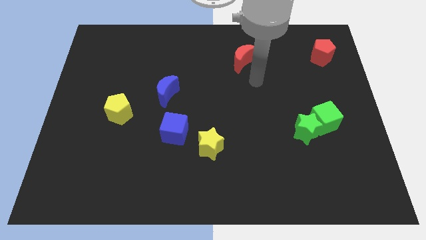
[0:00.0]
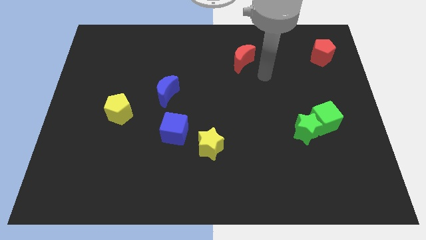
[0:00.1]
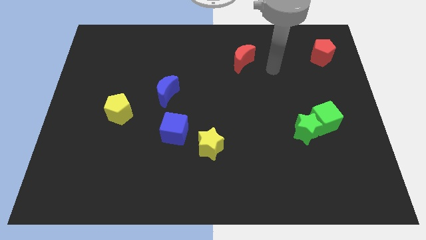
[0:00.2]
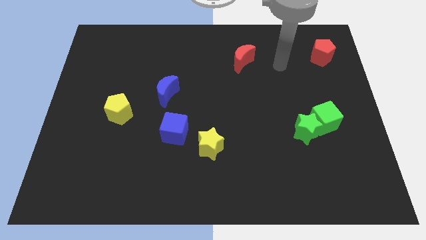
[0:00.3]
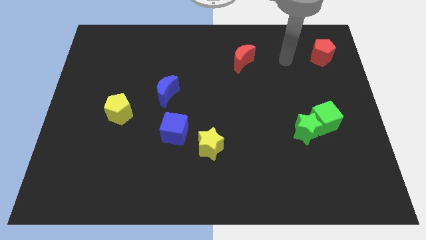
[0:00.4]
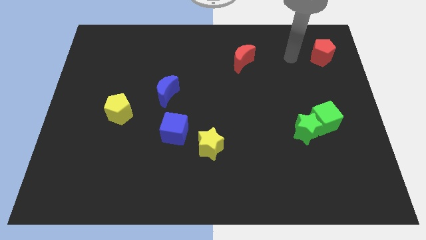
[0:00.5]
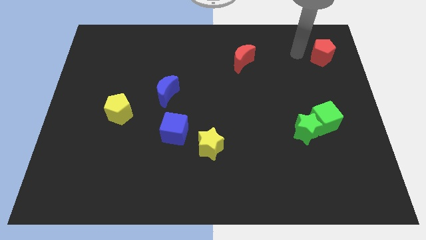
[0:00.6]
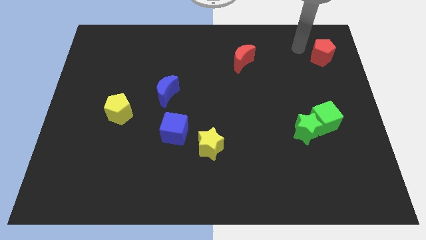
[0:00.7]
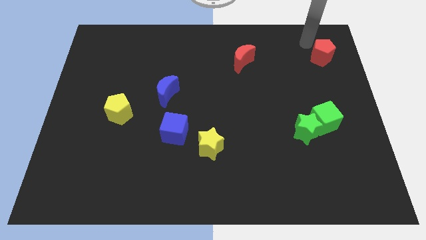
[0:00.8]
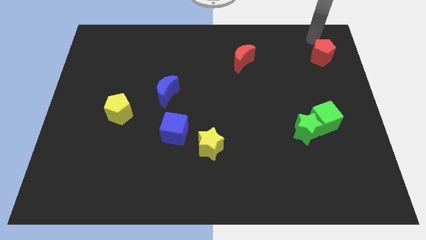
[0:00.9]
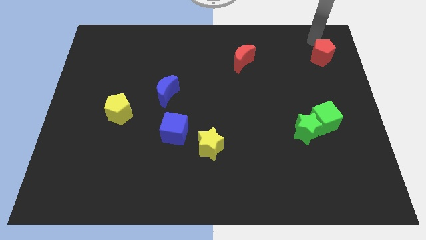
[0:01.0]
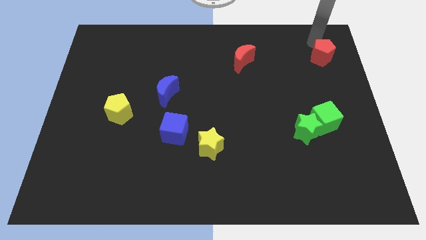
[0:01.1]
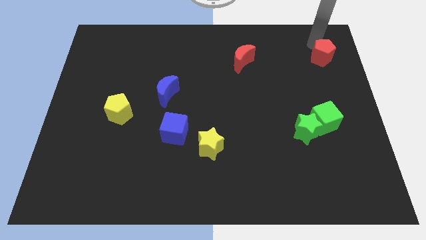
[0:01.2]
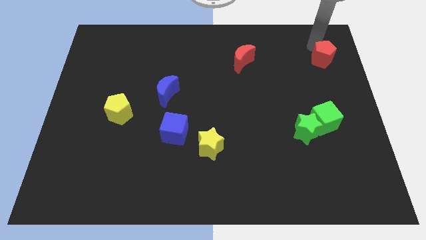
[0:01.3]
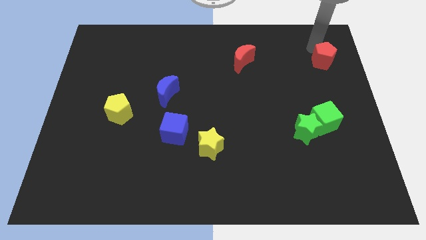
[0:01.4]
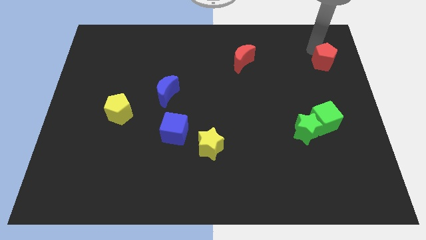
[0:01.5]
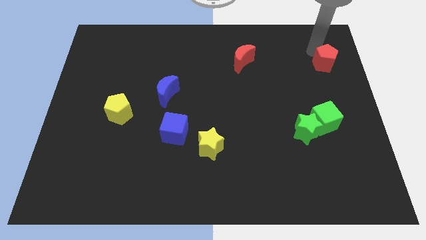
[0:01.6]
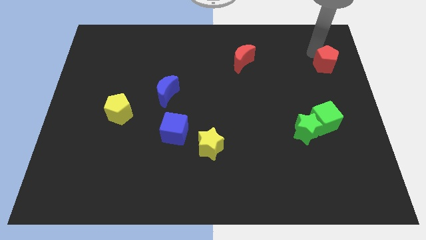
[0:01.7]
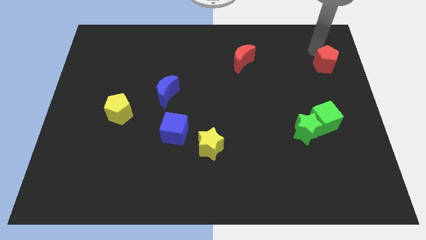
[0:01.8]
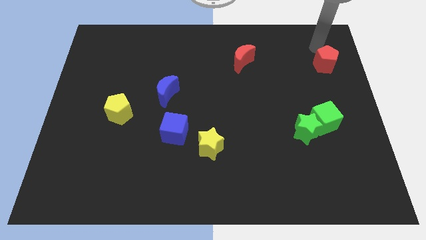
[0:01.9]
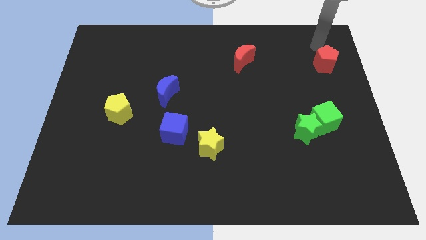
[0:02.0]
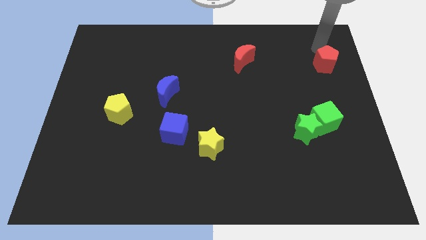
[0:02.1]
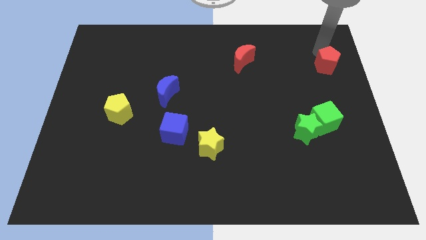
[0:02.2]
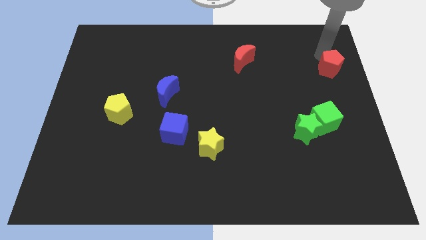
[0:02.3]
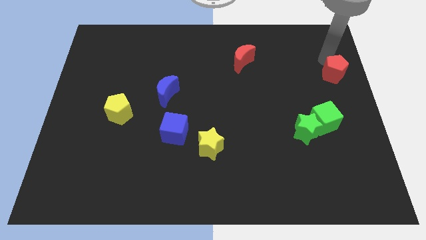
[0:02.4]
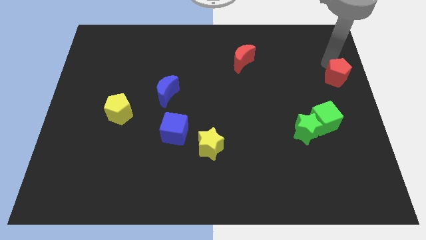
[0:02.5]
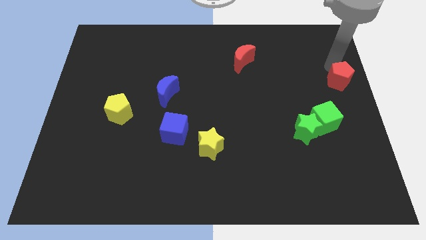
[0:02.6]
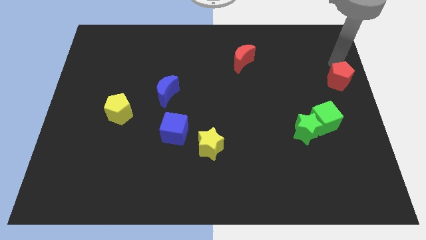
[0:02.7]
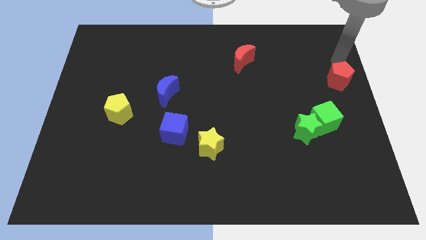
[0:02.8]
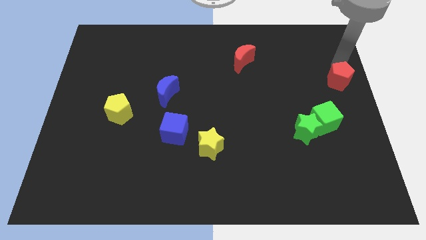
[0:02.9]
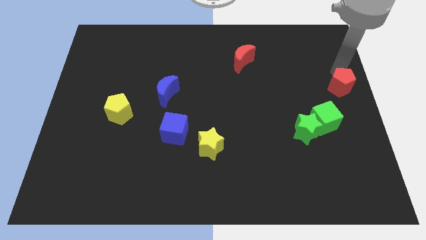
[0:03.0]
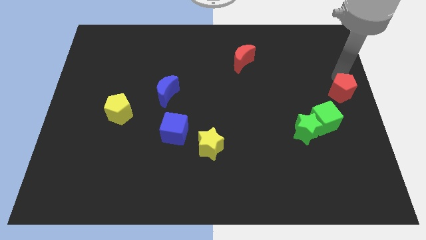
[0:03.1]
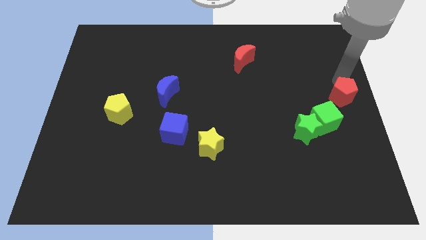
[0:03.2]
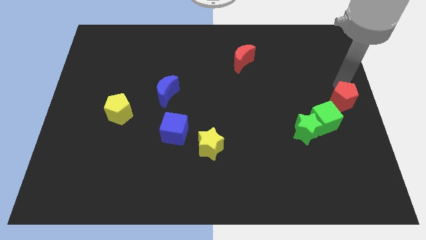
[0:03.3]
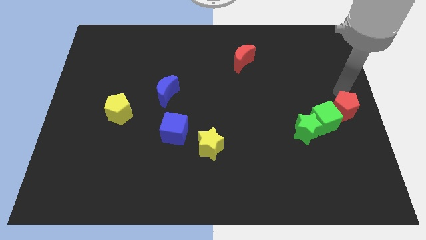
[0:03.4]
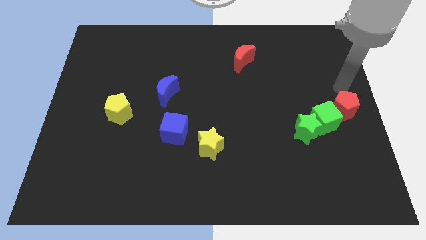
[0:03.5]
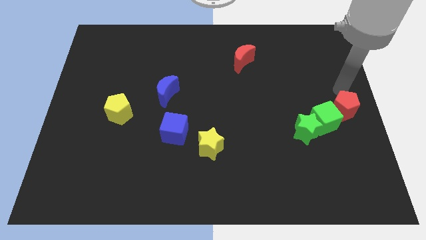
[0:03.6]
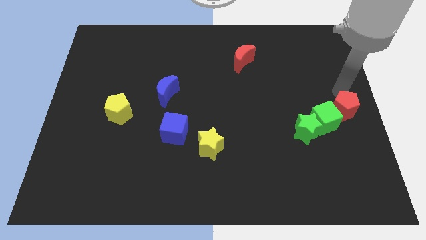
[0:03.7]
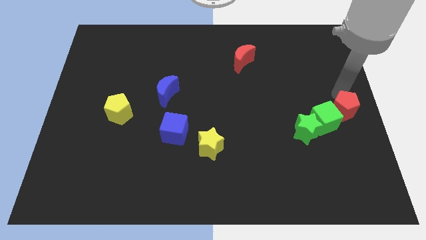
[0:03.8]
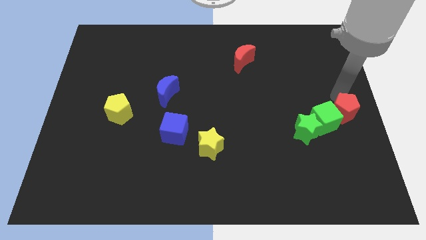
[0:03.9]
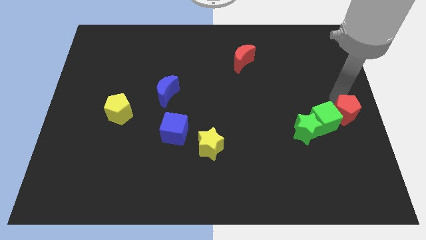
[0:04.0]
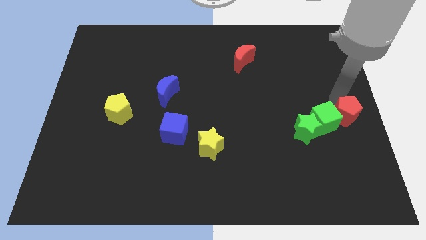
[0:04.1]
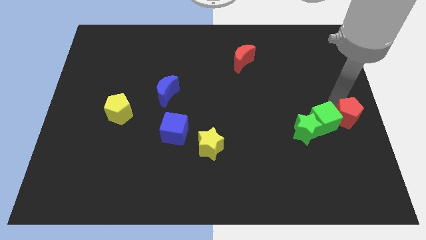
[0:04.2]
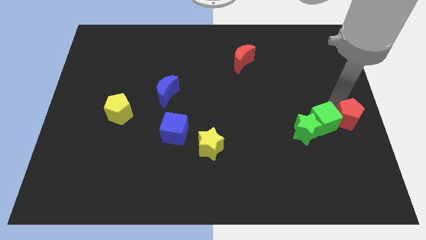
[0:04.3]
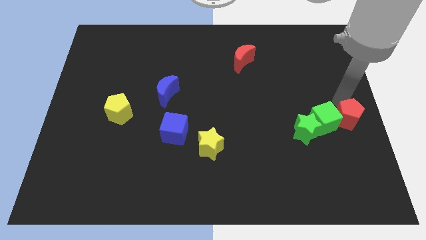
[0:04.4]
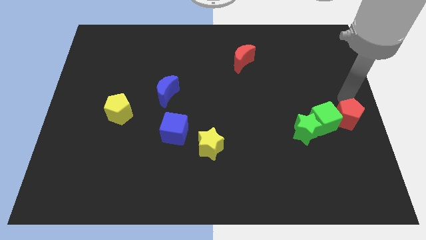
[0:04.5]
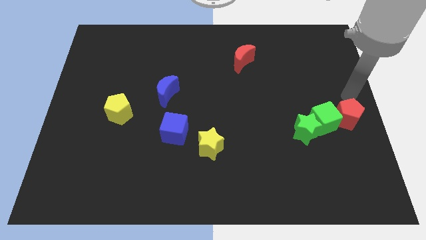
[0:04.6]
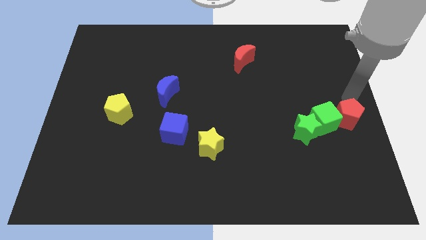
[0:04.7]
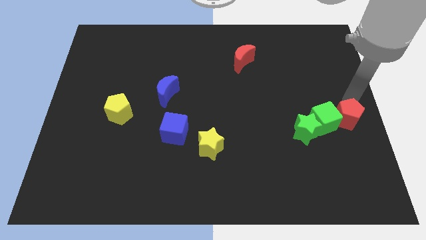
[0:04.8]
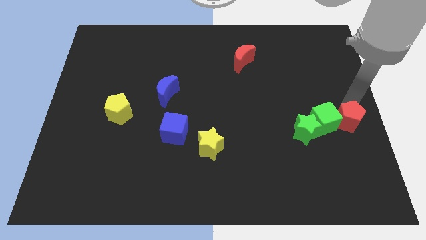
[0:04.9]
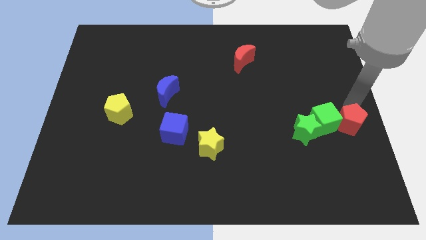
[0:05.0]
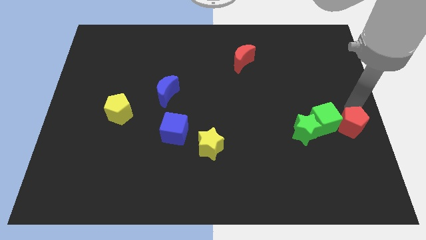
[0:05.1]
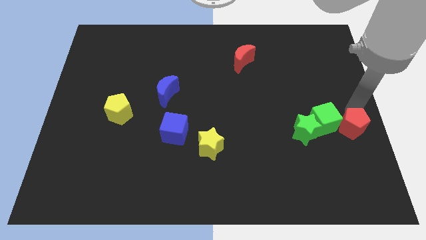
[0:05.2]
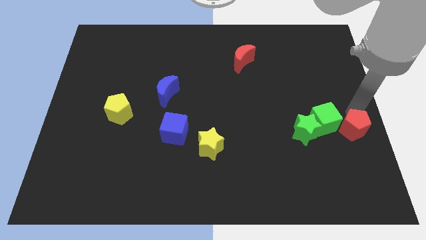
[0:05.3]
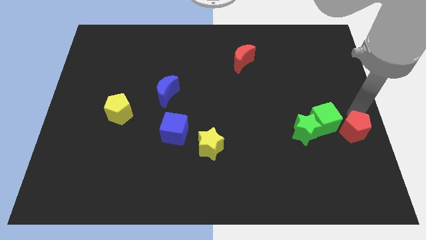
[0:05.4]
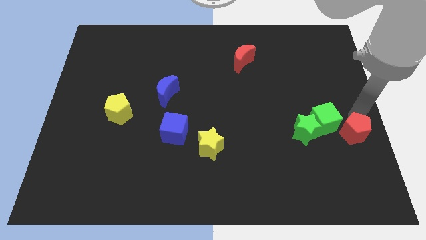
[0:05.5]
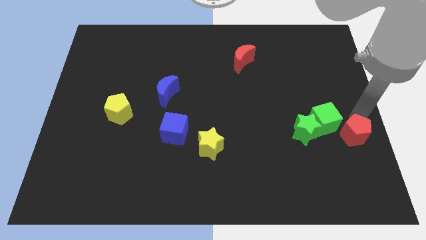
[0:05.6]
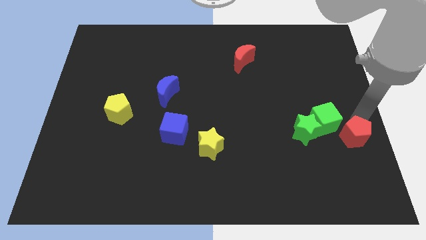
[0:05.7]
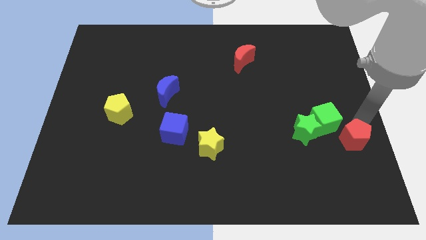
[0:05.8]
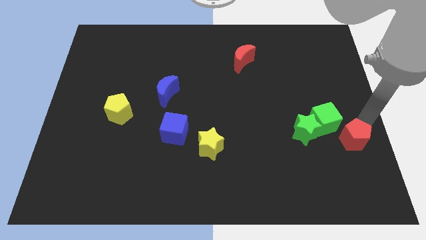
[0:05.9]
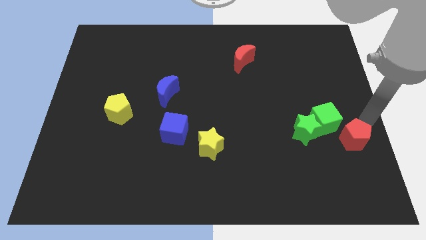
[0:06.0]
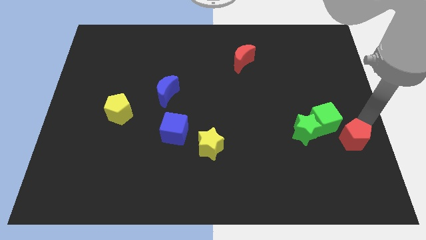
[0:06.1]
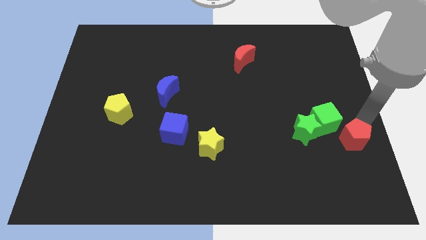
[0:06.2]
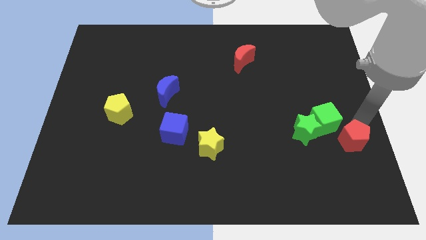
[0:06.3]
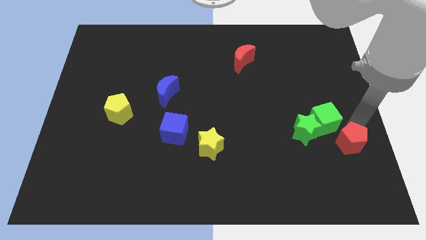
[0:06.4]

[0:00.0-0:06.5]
push the red pentagon below the green cube
